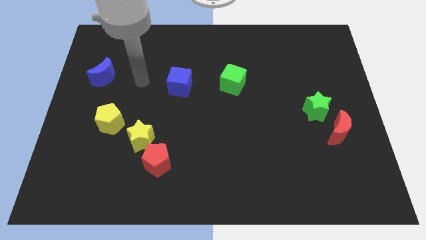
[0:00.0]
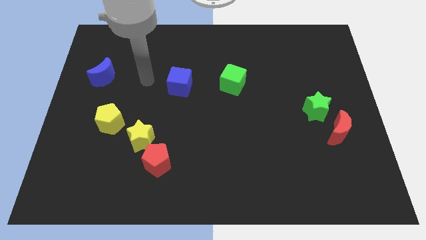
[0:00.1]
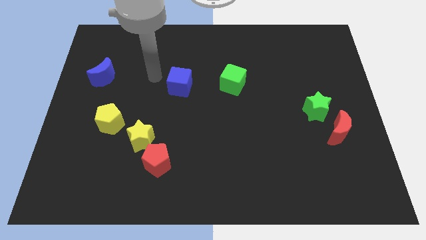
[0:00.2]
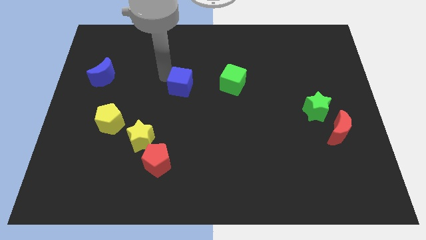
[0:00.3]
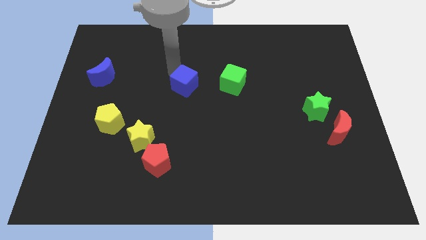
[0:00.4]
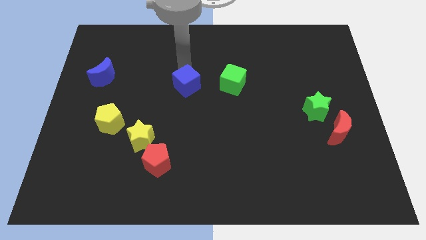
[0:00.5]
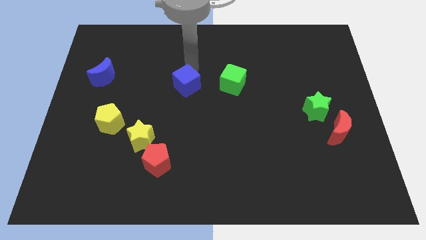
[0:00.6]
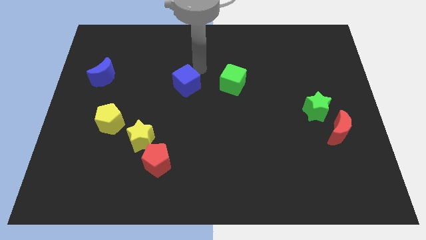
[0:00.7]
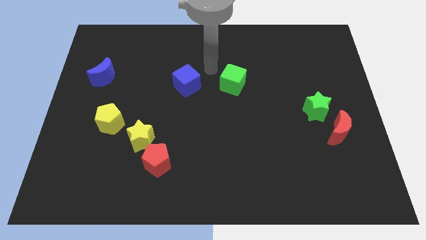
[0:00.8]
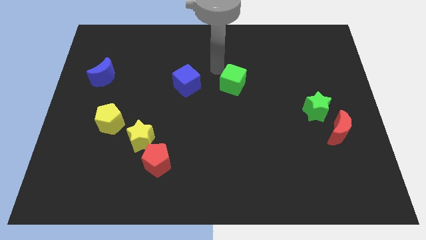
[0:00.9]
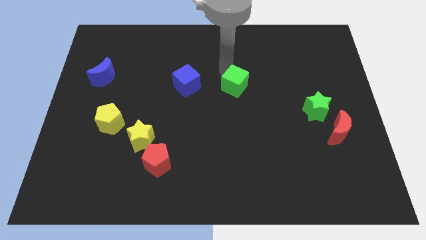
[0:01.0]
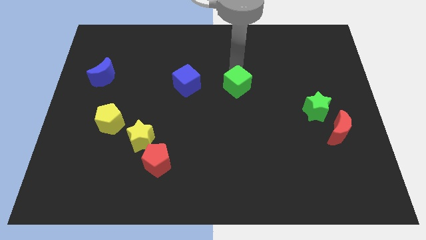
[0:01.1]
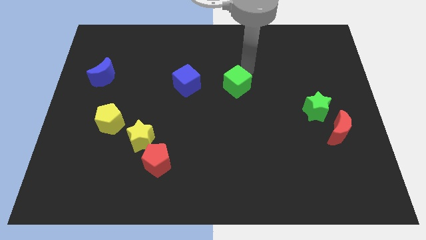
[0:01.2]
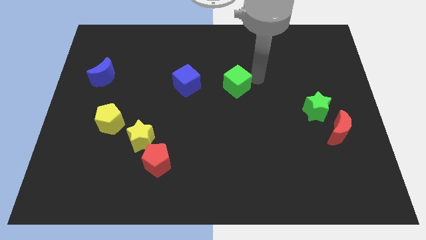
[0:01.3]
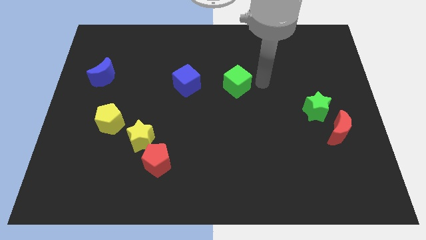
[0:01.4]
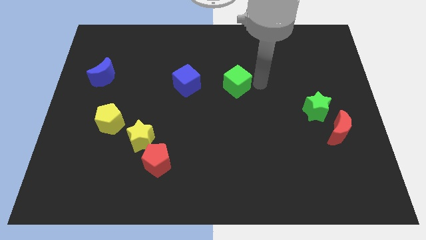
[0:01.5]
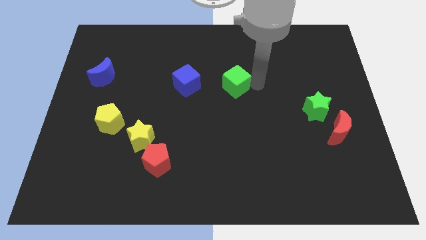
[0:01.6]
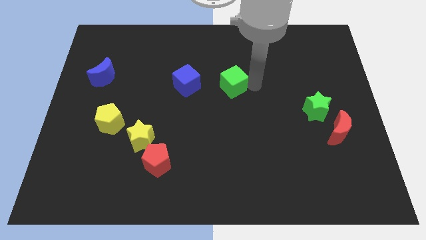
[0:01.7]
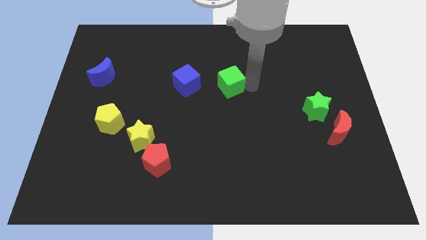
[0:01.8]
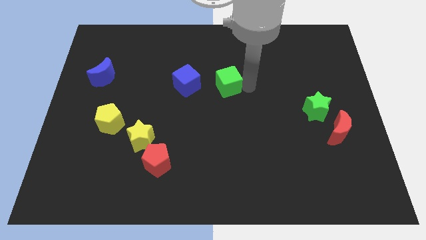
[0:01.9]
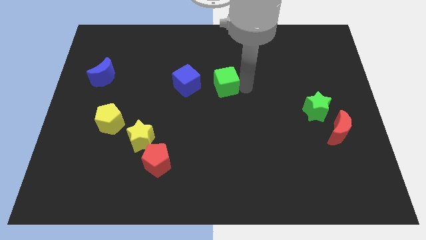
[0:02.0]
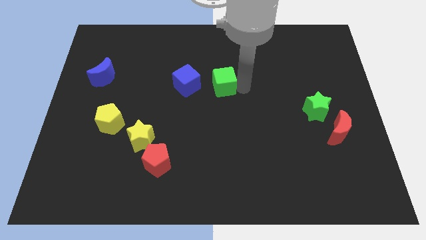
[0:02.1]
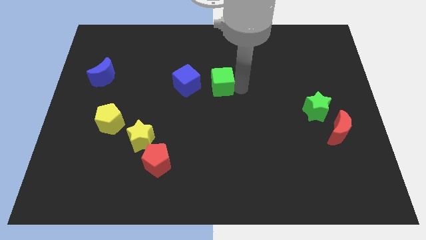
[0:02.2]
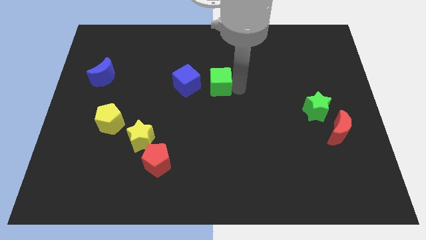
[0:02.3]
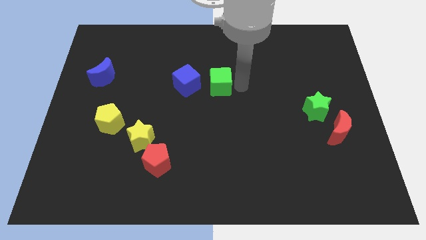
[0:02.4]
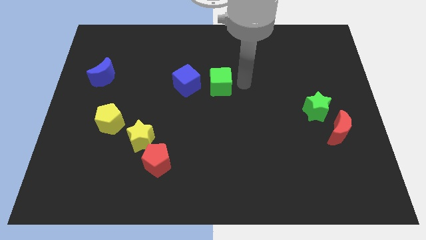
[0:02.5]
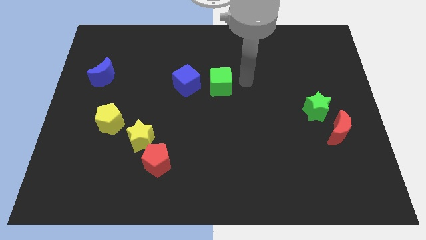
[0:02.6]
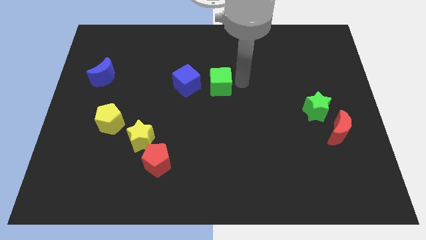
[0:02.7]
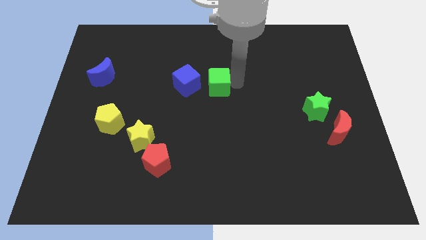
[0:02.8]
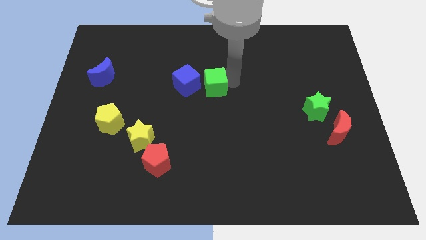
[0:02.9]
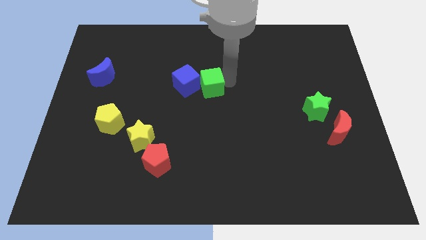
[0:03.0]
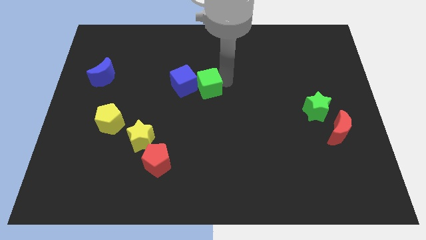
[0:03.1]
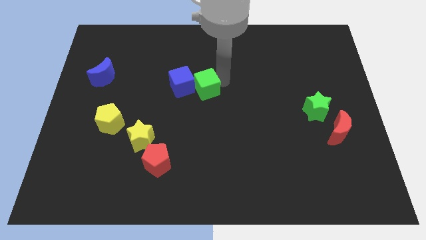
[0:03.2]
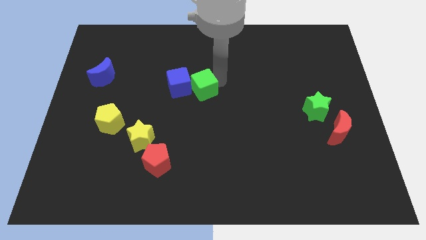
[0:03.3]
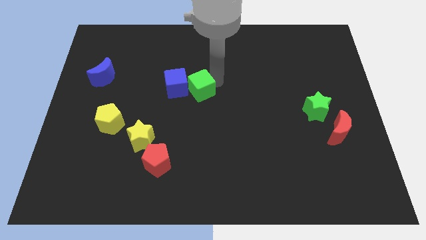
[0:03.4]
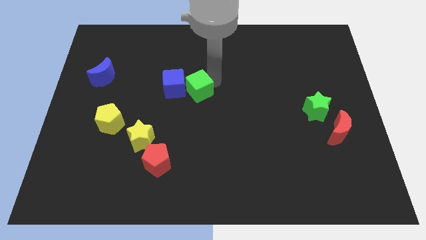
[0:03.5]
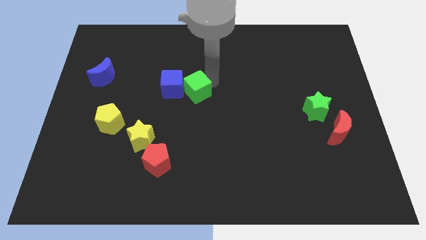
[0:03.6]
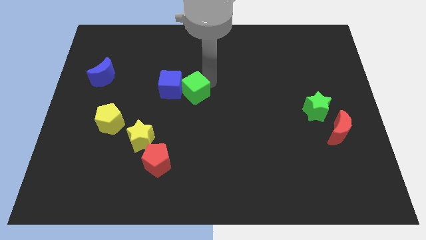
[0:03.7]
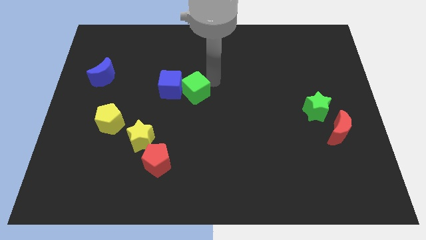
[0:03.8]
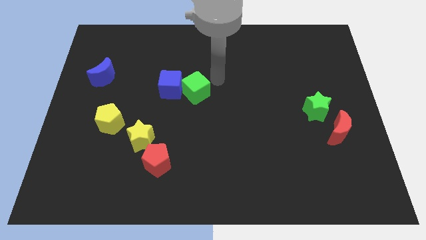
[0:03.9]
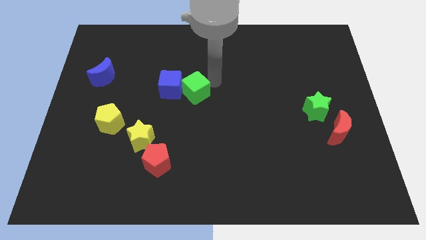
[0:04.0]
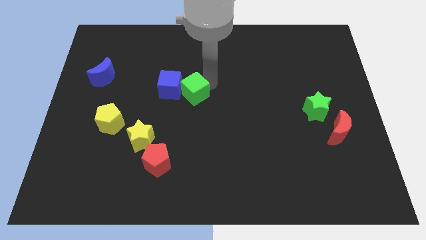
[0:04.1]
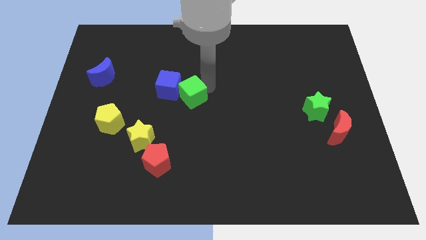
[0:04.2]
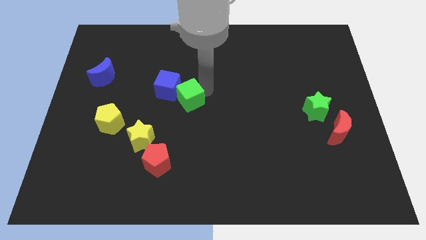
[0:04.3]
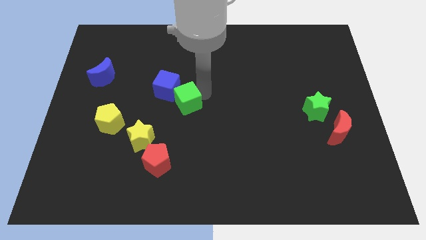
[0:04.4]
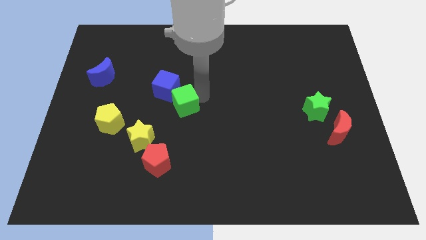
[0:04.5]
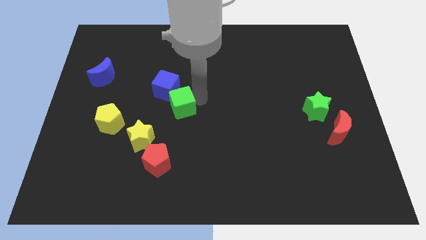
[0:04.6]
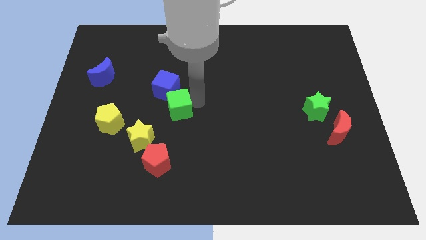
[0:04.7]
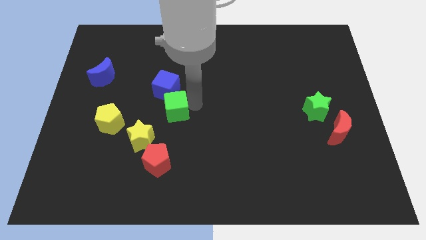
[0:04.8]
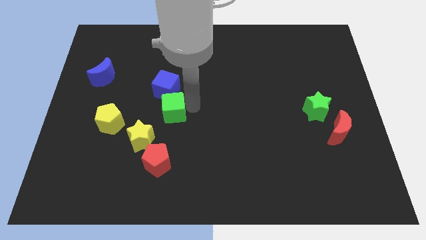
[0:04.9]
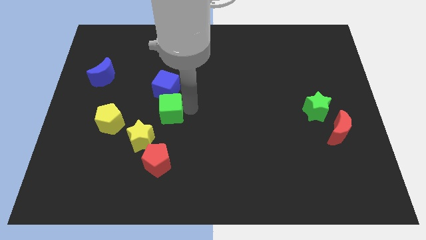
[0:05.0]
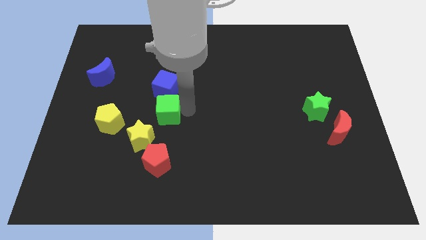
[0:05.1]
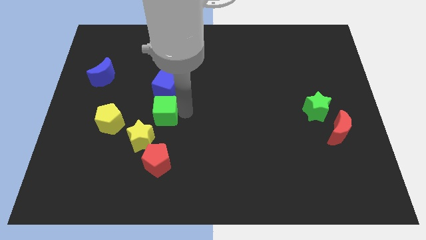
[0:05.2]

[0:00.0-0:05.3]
slide the green cube above the yellow star

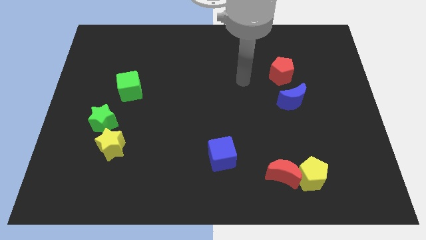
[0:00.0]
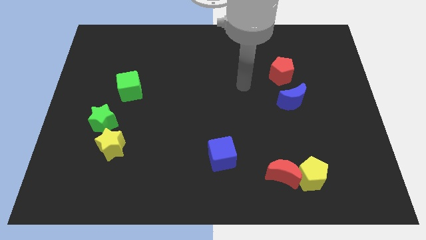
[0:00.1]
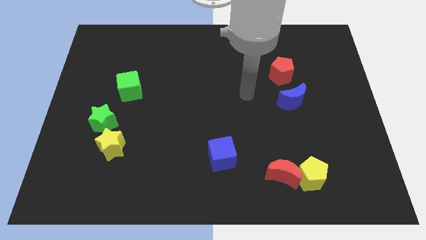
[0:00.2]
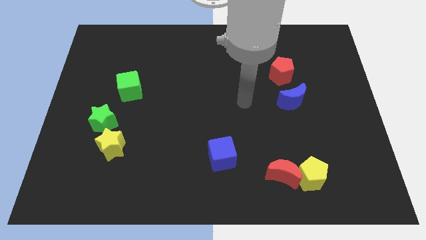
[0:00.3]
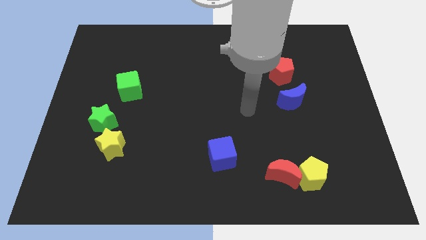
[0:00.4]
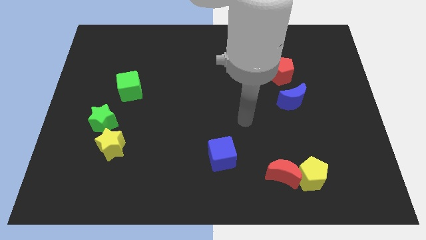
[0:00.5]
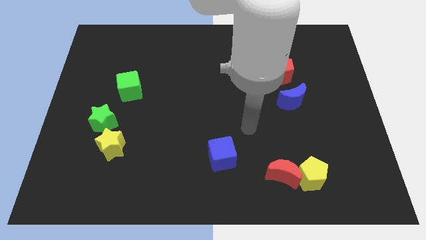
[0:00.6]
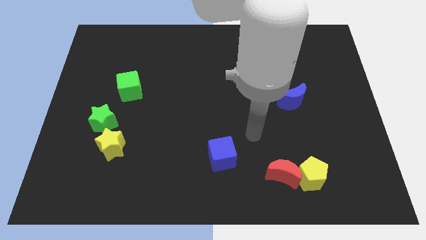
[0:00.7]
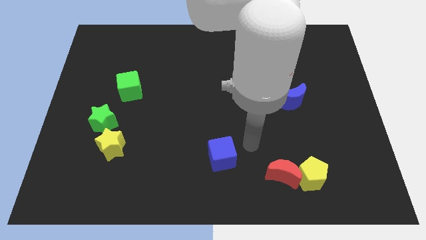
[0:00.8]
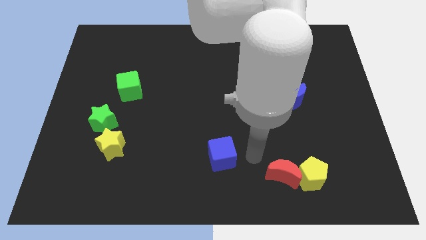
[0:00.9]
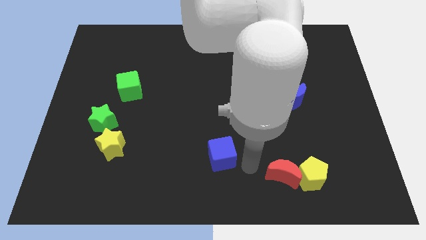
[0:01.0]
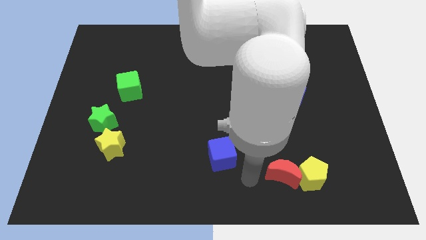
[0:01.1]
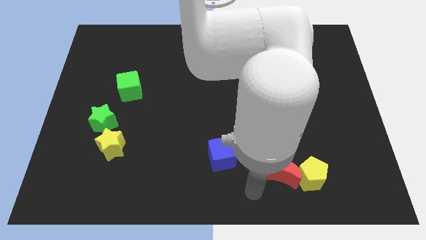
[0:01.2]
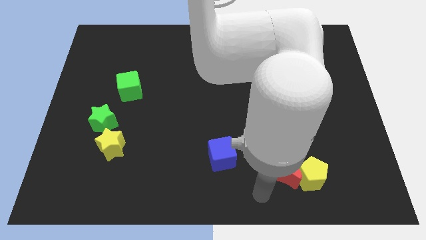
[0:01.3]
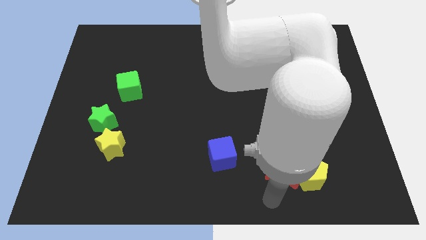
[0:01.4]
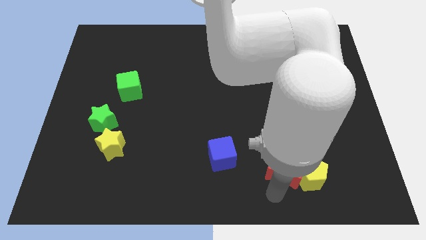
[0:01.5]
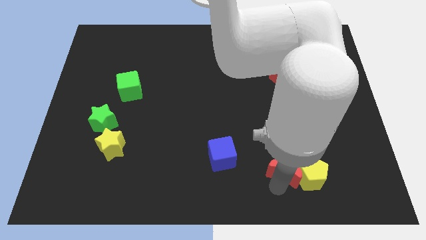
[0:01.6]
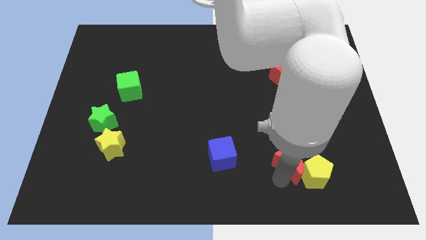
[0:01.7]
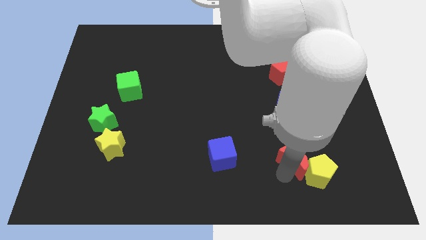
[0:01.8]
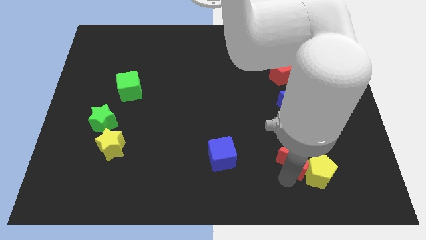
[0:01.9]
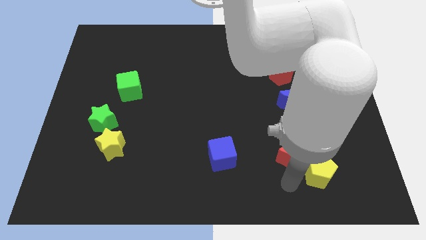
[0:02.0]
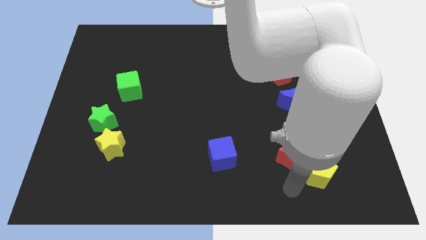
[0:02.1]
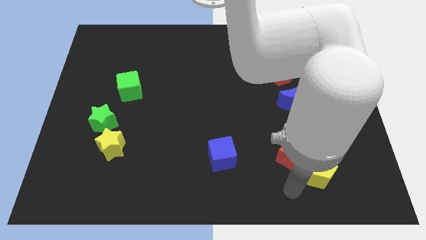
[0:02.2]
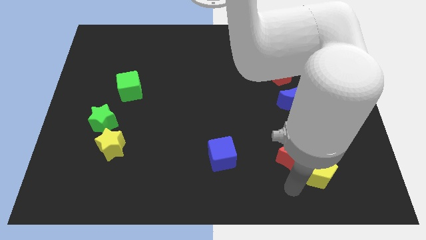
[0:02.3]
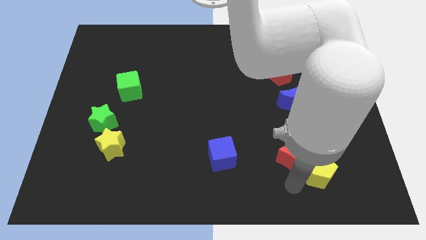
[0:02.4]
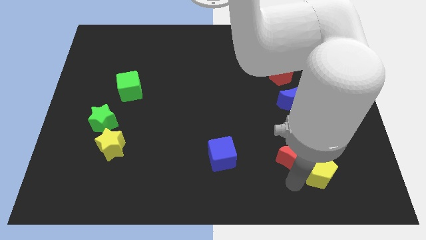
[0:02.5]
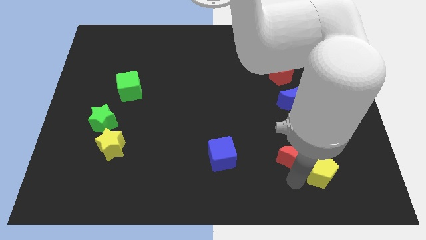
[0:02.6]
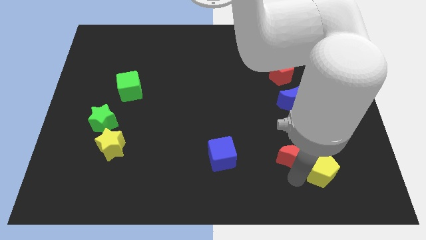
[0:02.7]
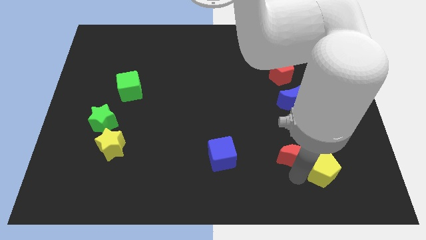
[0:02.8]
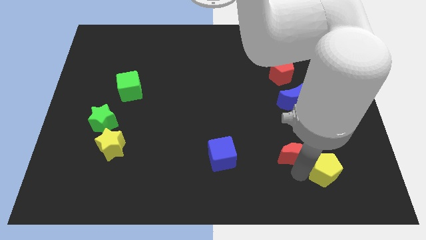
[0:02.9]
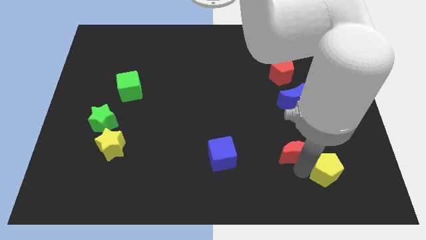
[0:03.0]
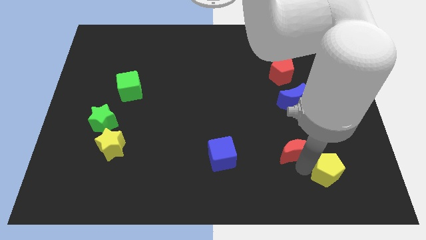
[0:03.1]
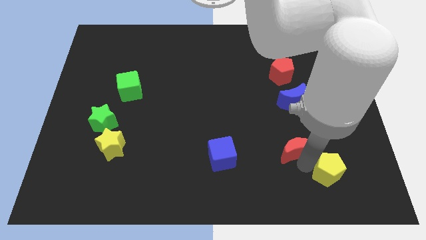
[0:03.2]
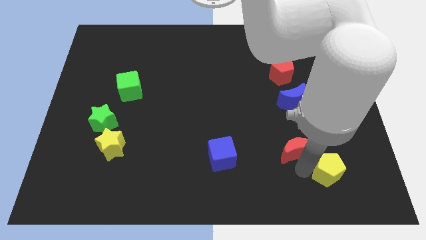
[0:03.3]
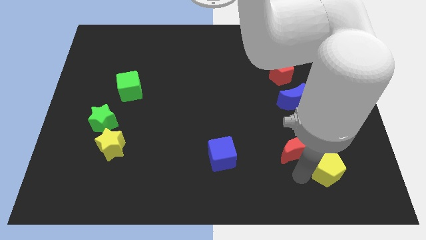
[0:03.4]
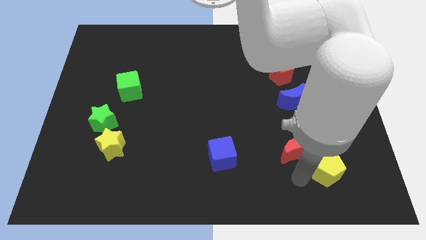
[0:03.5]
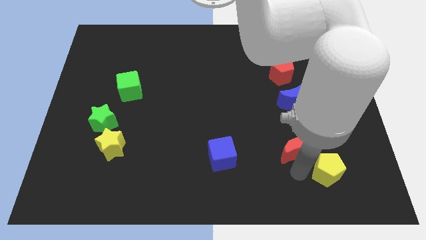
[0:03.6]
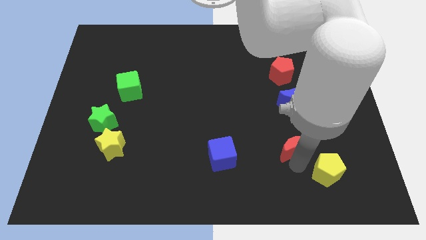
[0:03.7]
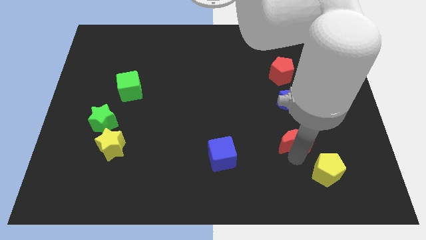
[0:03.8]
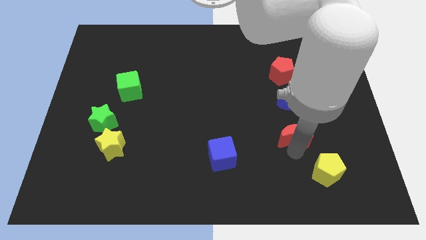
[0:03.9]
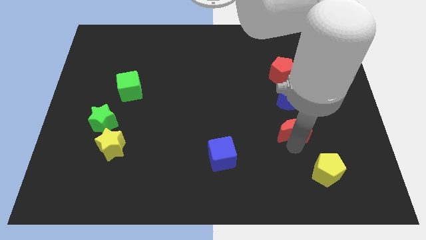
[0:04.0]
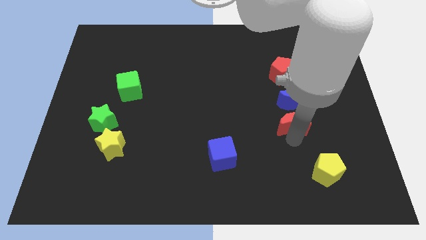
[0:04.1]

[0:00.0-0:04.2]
move the red moon to the bottom of the red pentagon
